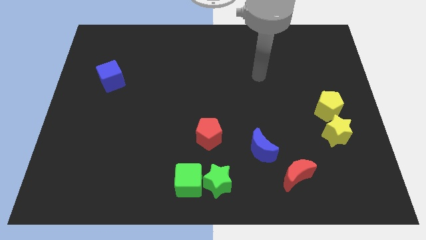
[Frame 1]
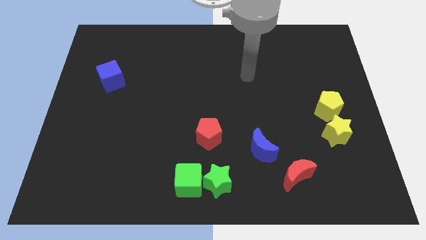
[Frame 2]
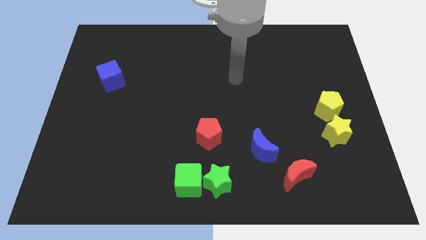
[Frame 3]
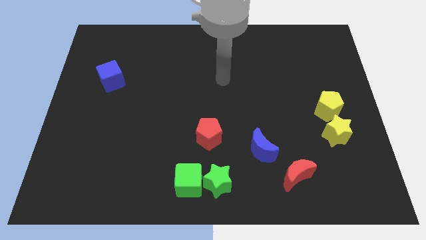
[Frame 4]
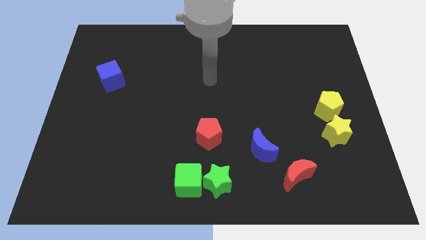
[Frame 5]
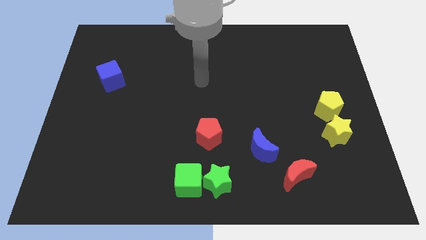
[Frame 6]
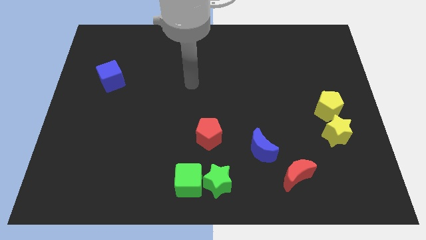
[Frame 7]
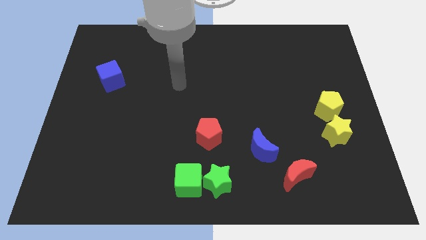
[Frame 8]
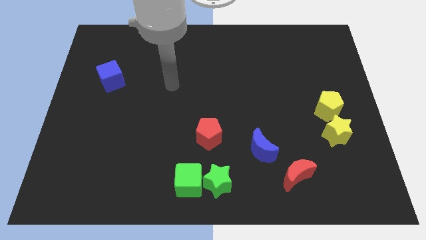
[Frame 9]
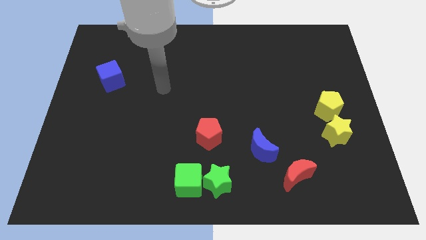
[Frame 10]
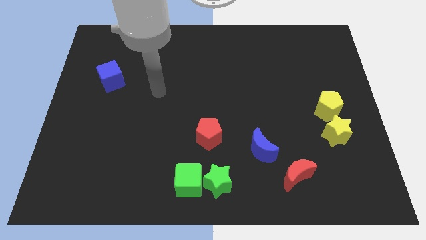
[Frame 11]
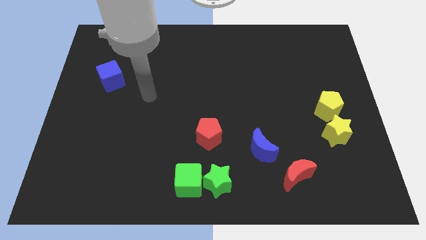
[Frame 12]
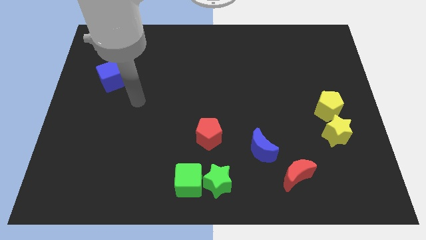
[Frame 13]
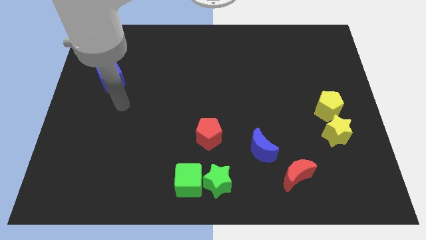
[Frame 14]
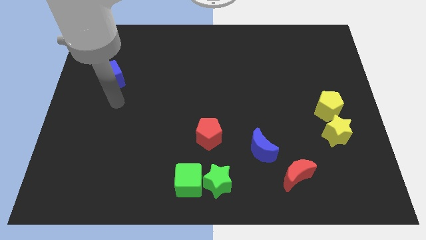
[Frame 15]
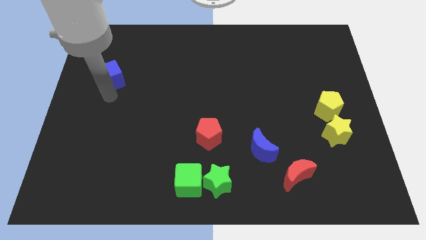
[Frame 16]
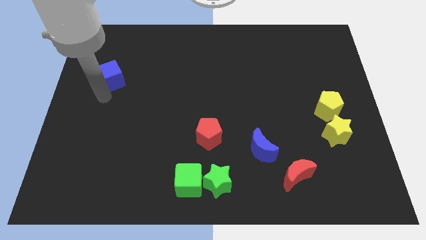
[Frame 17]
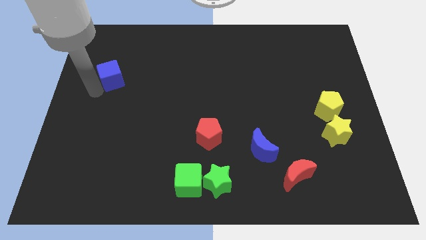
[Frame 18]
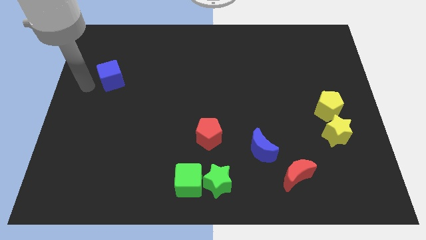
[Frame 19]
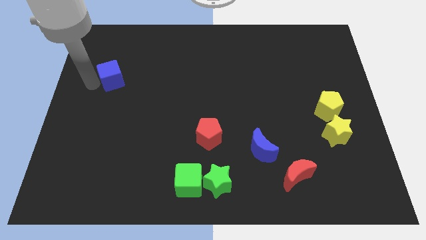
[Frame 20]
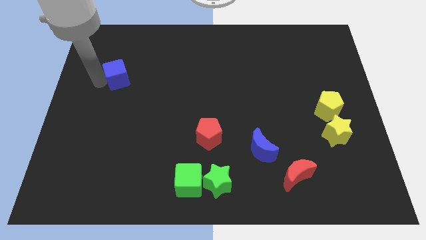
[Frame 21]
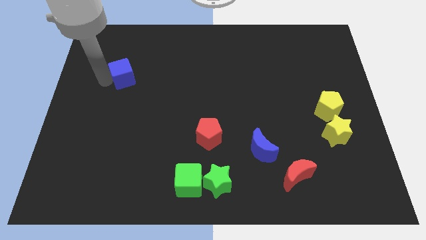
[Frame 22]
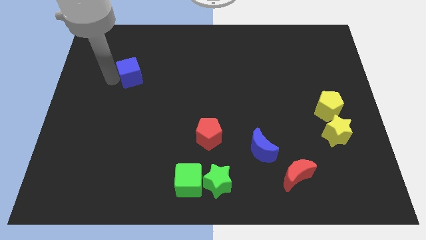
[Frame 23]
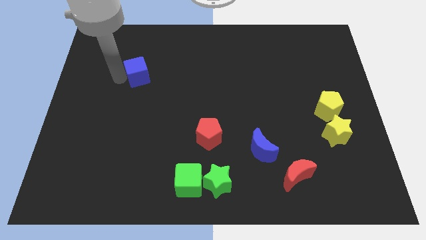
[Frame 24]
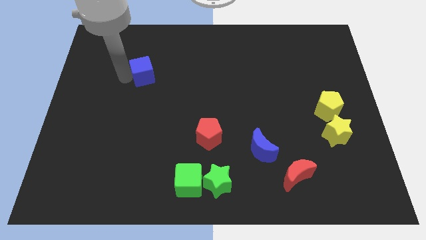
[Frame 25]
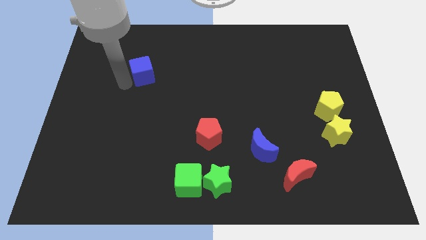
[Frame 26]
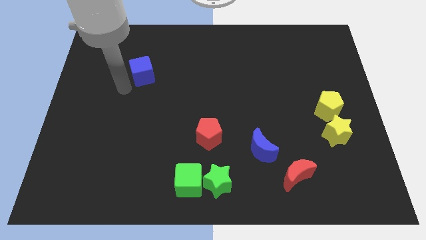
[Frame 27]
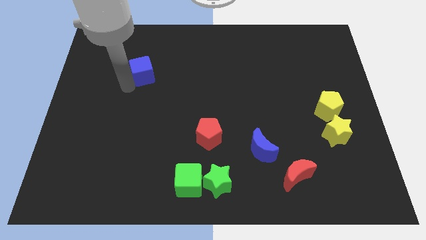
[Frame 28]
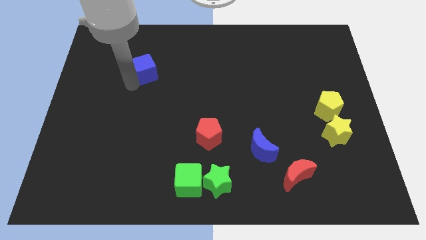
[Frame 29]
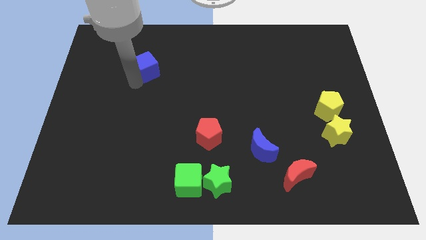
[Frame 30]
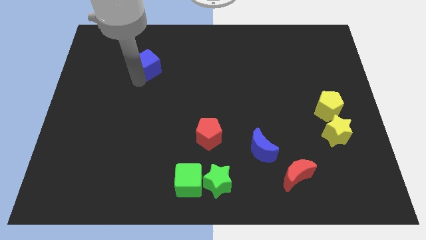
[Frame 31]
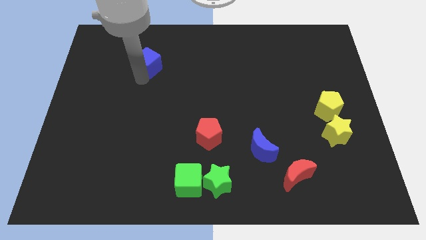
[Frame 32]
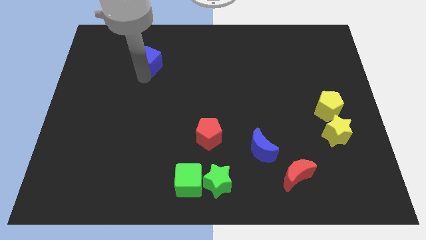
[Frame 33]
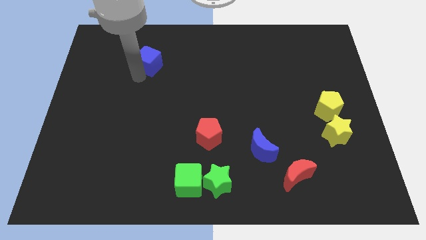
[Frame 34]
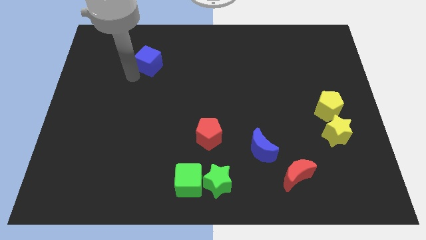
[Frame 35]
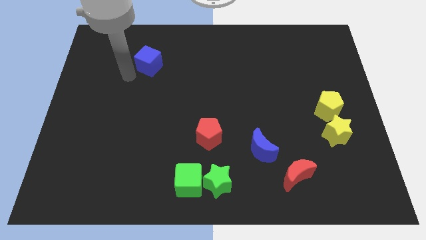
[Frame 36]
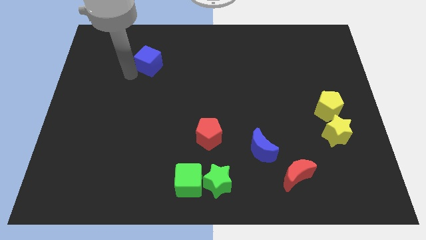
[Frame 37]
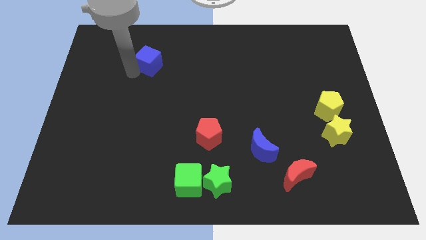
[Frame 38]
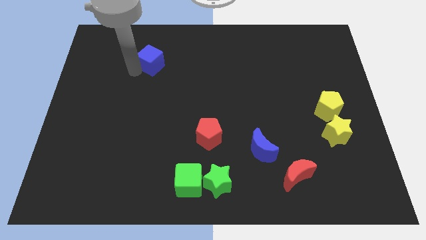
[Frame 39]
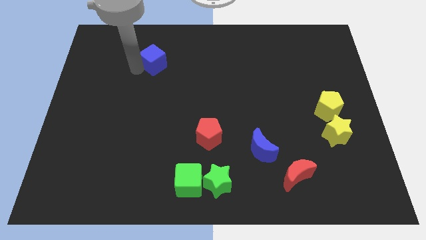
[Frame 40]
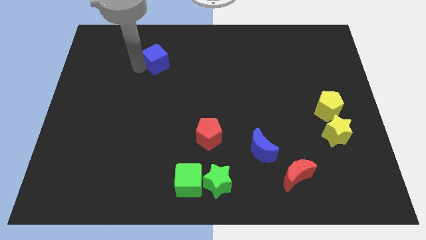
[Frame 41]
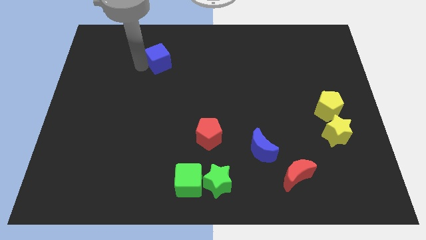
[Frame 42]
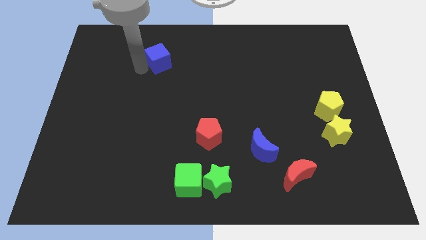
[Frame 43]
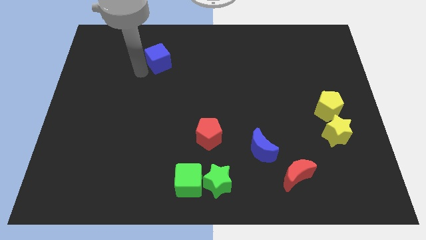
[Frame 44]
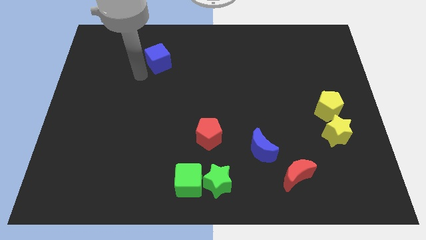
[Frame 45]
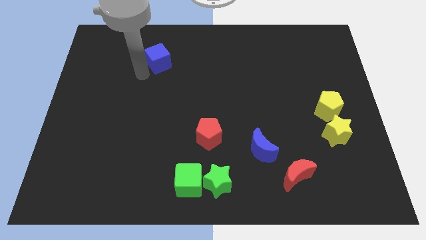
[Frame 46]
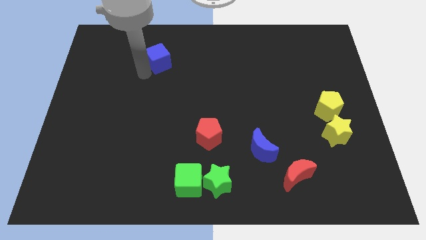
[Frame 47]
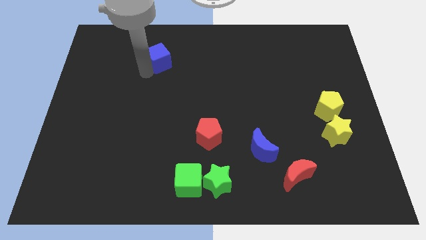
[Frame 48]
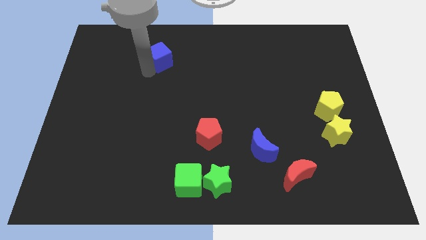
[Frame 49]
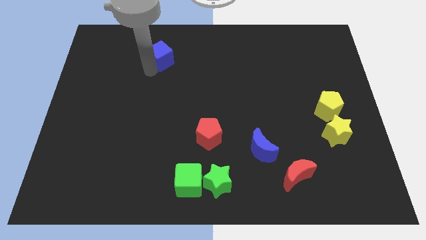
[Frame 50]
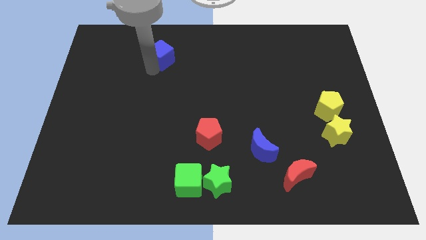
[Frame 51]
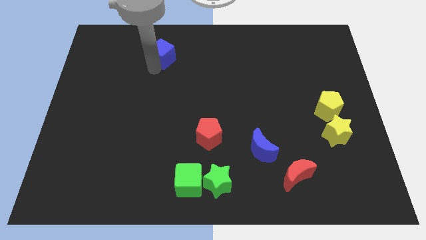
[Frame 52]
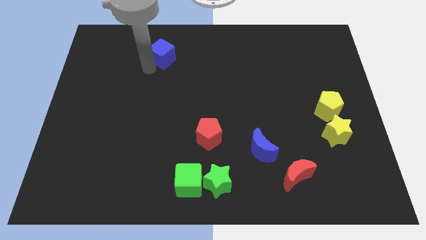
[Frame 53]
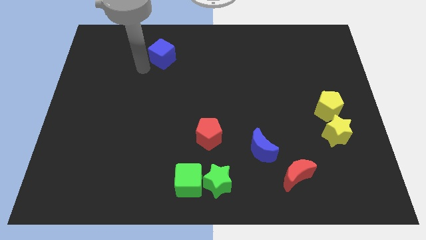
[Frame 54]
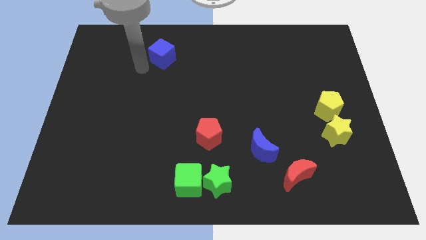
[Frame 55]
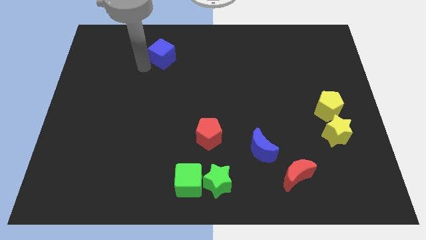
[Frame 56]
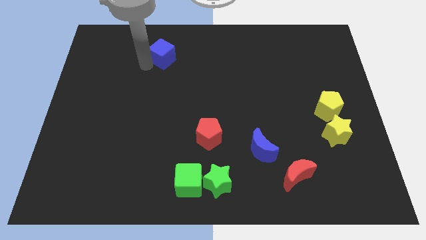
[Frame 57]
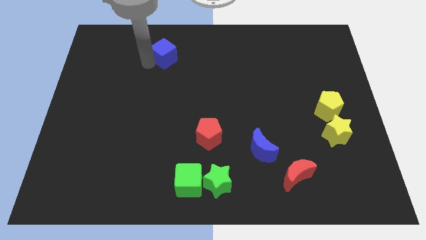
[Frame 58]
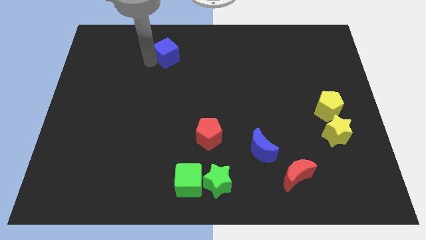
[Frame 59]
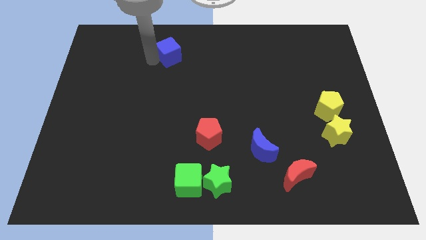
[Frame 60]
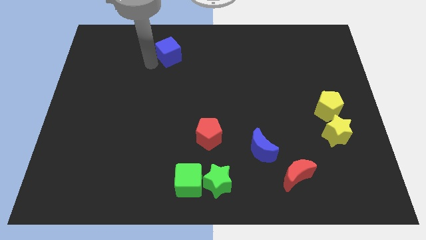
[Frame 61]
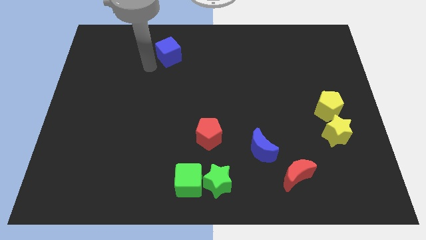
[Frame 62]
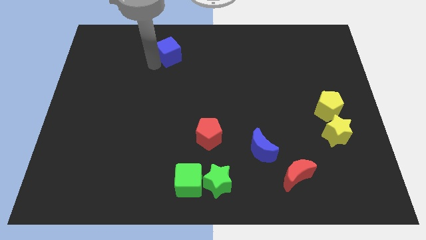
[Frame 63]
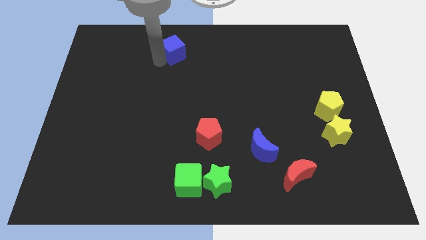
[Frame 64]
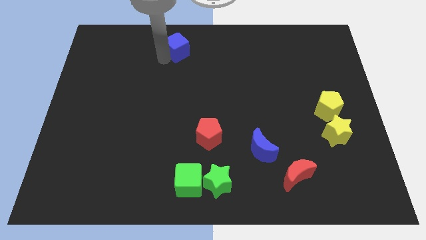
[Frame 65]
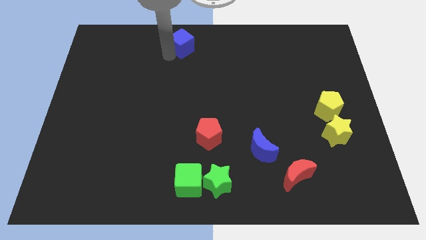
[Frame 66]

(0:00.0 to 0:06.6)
push the blue cube to the top
